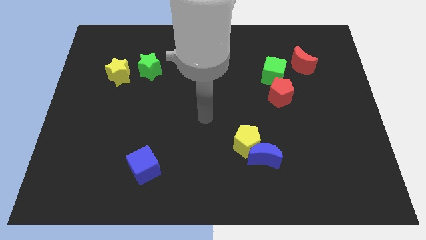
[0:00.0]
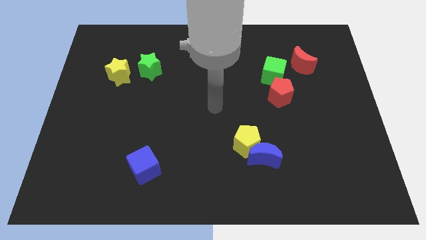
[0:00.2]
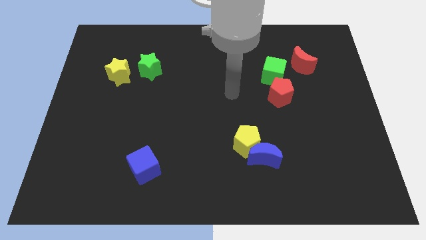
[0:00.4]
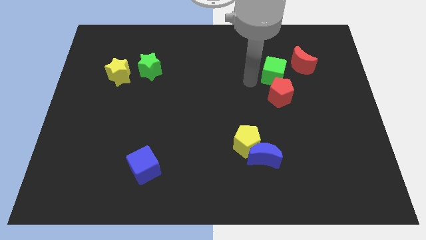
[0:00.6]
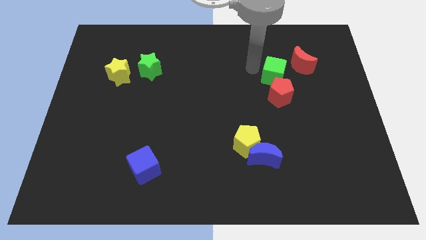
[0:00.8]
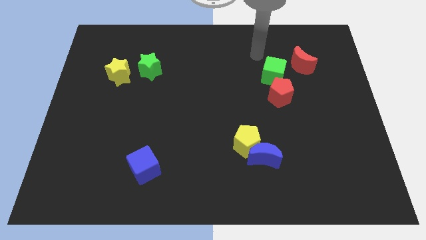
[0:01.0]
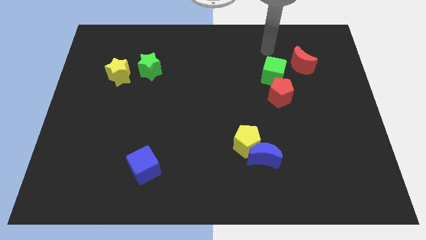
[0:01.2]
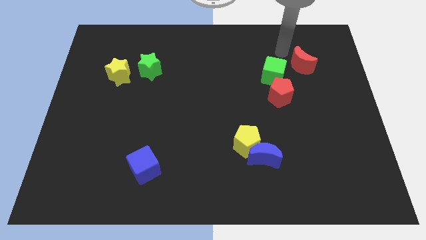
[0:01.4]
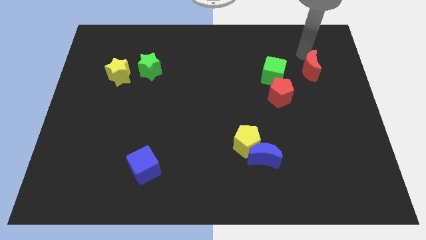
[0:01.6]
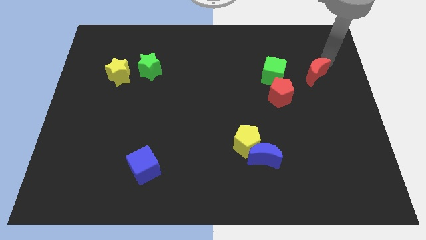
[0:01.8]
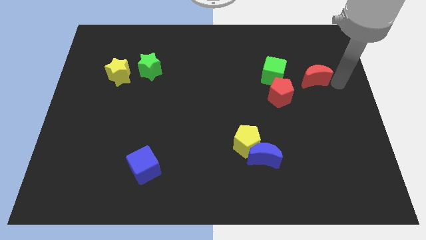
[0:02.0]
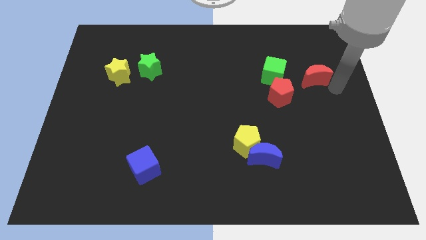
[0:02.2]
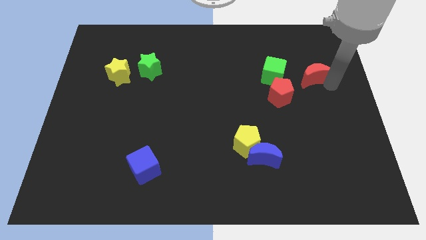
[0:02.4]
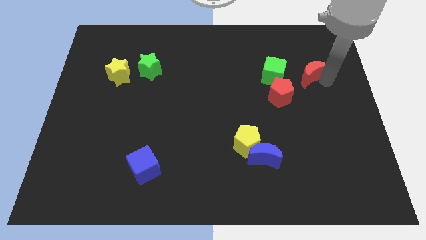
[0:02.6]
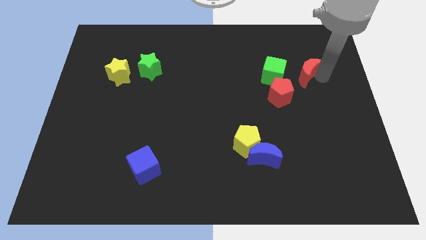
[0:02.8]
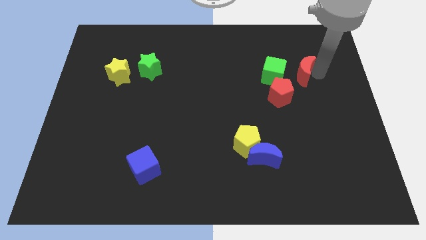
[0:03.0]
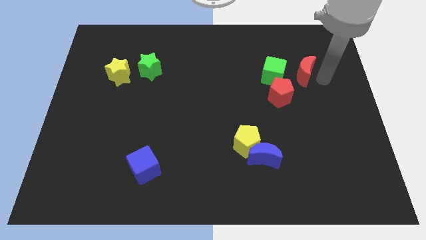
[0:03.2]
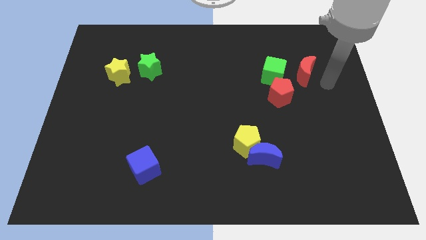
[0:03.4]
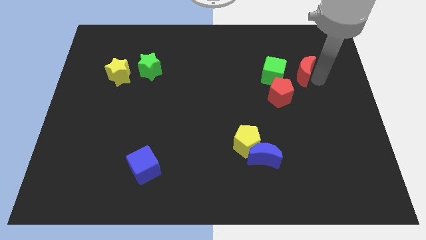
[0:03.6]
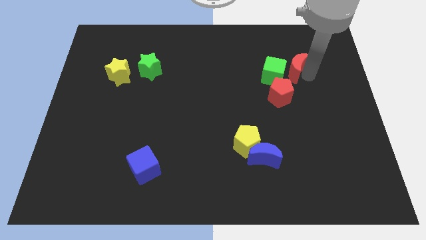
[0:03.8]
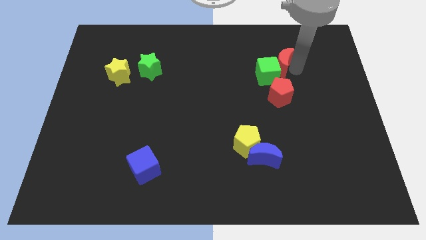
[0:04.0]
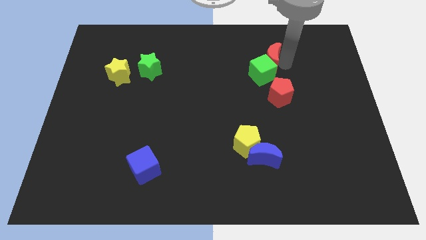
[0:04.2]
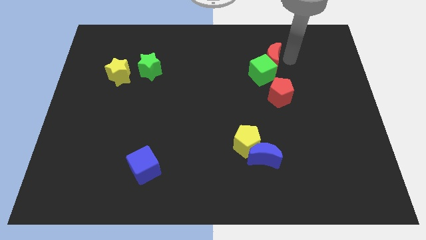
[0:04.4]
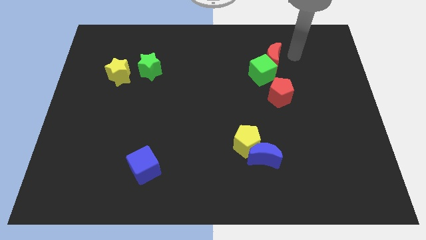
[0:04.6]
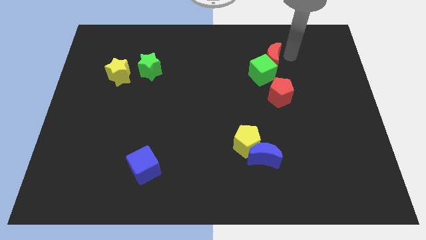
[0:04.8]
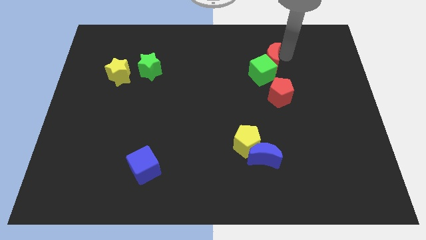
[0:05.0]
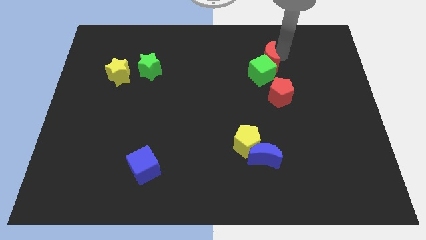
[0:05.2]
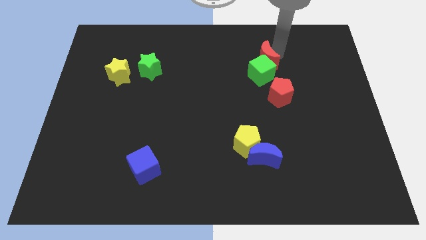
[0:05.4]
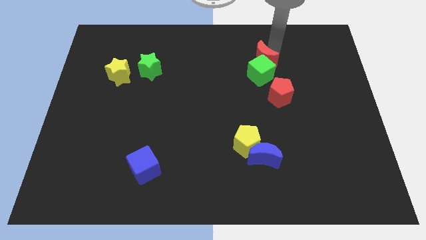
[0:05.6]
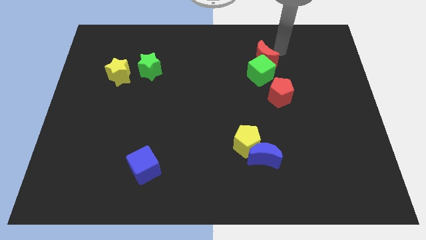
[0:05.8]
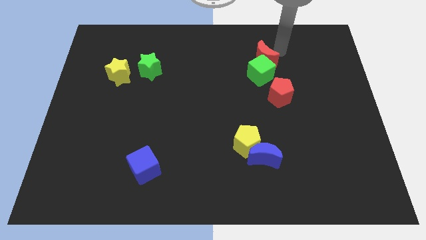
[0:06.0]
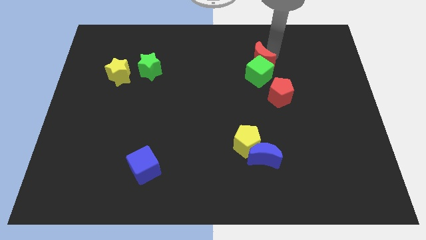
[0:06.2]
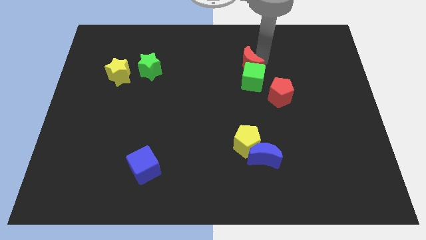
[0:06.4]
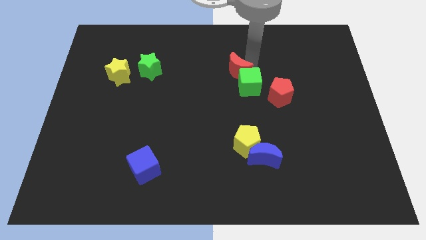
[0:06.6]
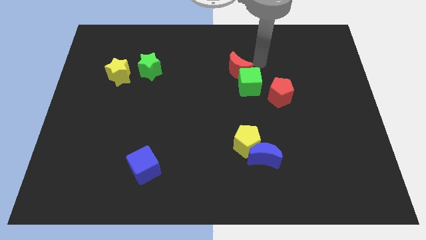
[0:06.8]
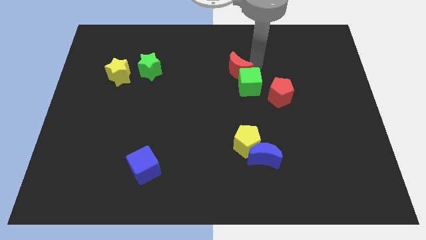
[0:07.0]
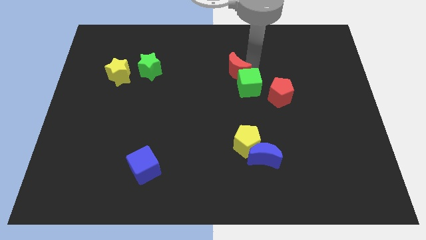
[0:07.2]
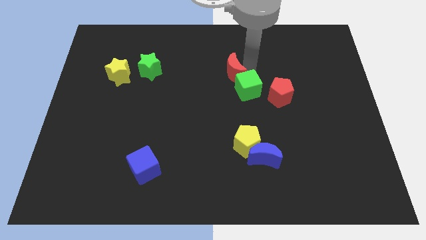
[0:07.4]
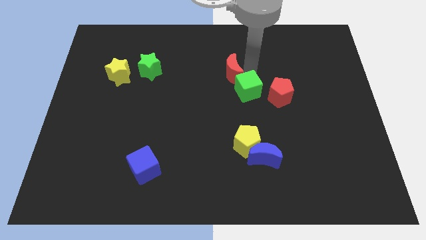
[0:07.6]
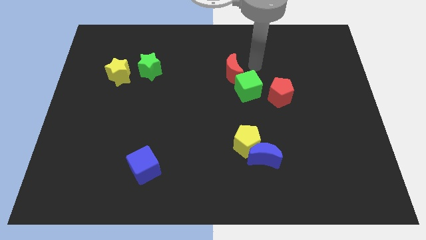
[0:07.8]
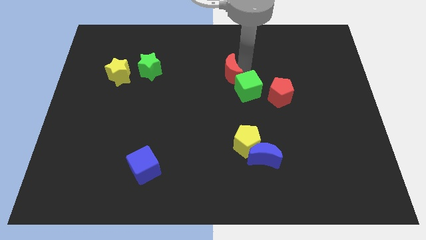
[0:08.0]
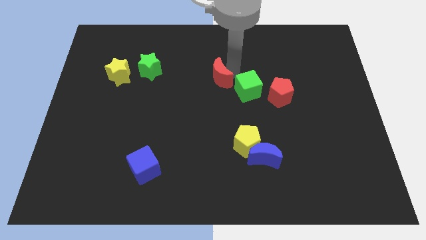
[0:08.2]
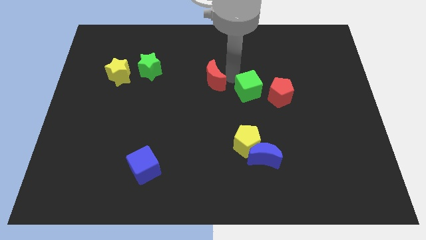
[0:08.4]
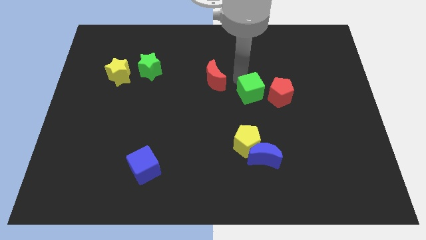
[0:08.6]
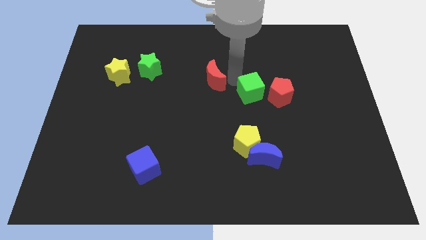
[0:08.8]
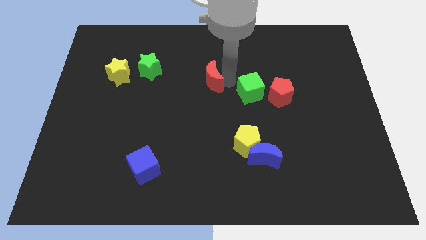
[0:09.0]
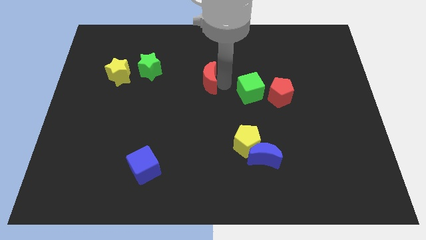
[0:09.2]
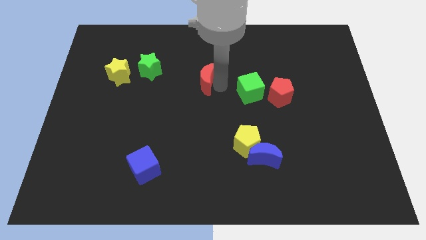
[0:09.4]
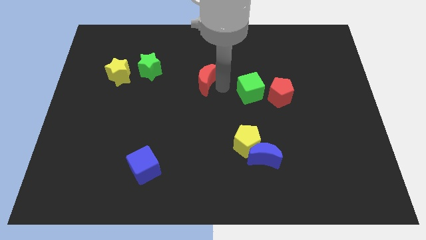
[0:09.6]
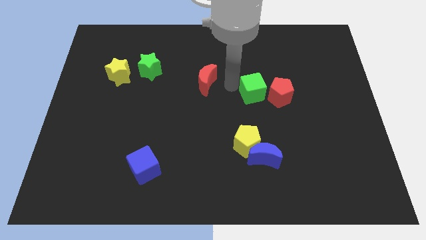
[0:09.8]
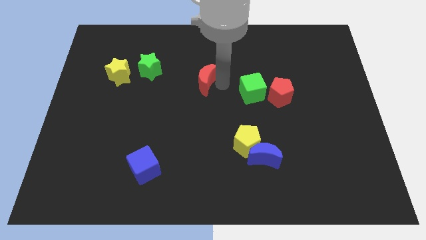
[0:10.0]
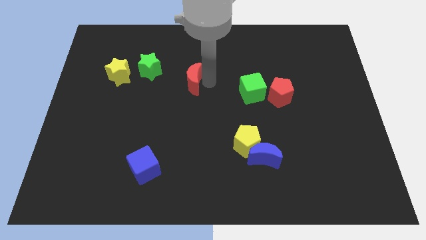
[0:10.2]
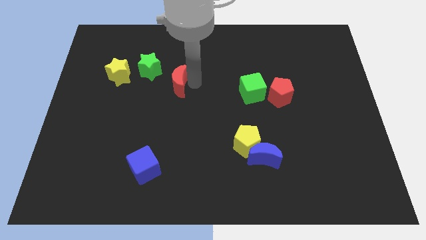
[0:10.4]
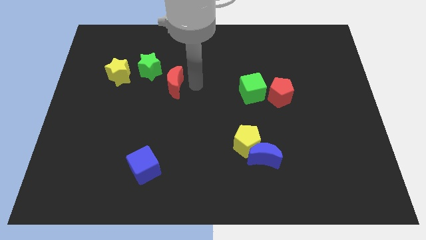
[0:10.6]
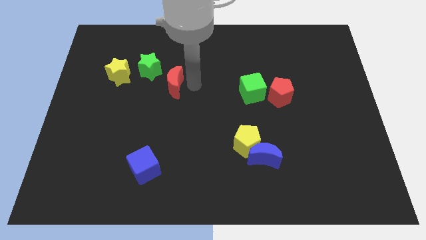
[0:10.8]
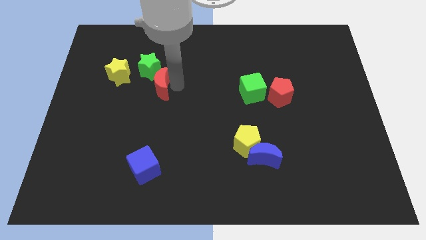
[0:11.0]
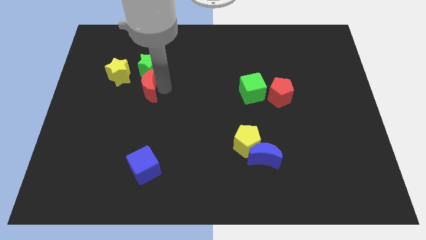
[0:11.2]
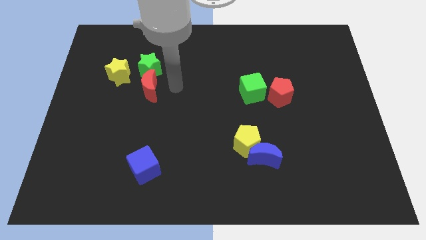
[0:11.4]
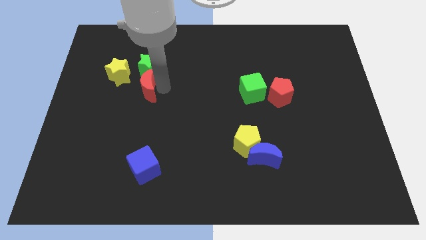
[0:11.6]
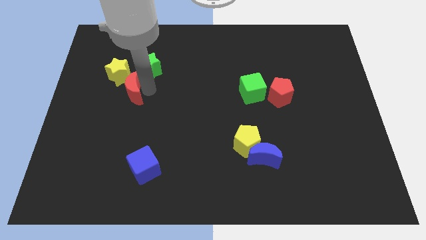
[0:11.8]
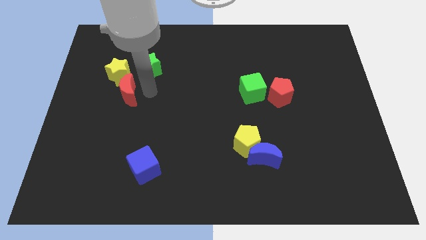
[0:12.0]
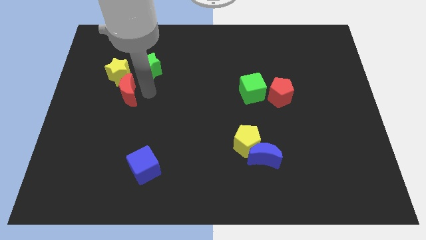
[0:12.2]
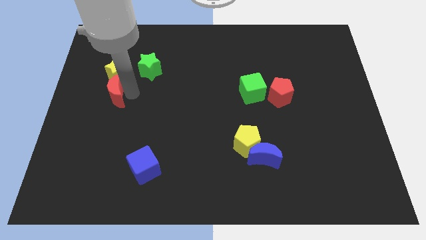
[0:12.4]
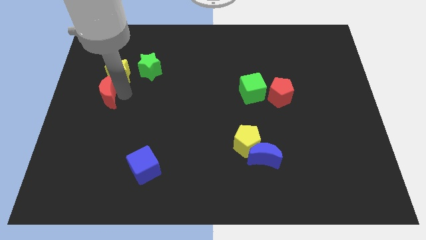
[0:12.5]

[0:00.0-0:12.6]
slide the red moon to the center left

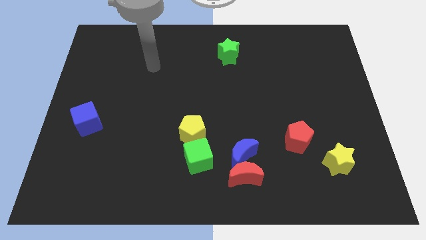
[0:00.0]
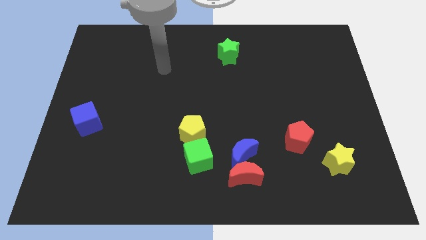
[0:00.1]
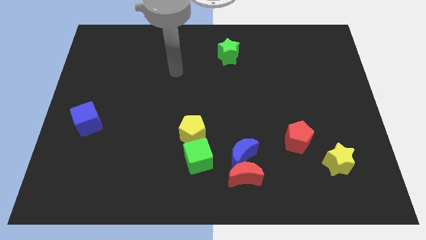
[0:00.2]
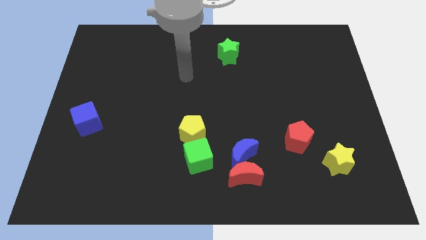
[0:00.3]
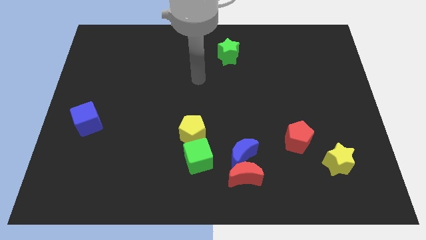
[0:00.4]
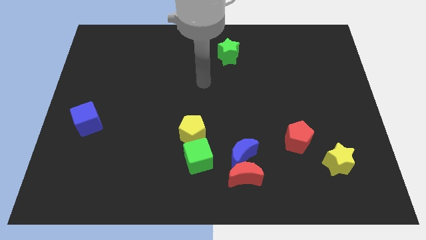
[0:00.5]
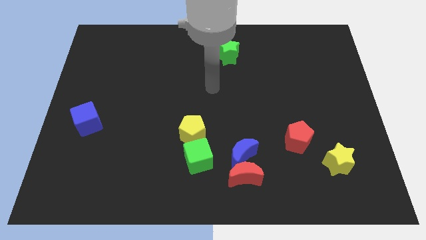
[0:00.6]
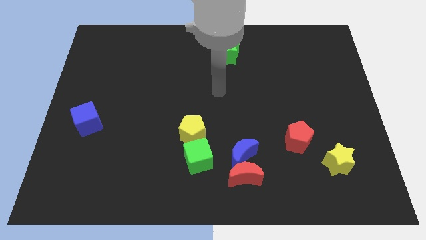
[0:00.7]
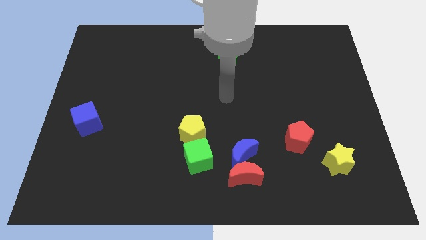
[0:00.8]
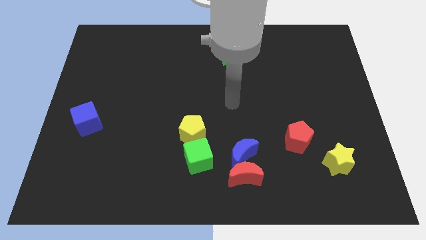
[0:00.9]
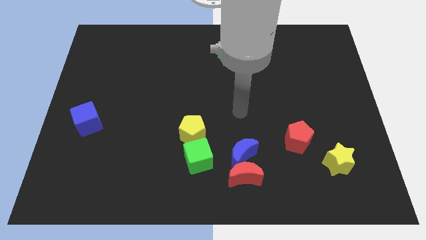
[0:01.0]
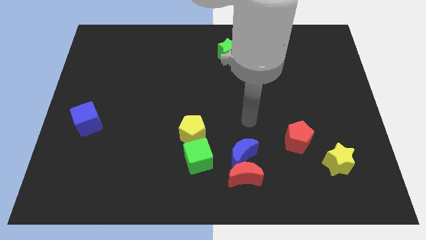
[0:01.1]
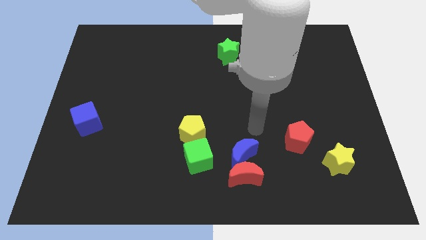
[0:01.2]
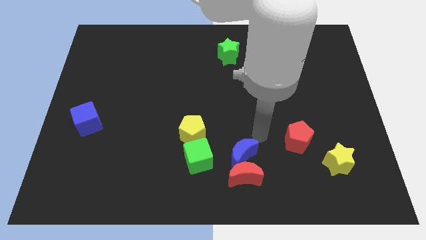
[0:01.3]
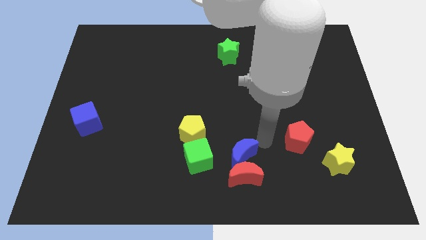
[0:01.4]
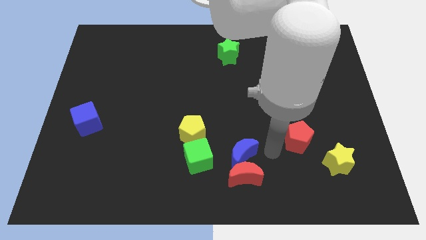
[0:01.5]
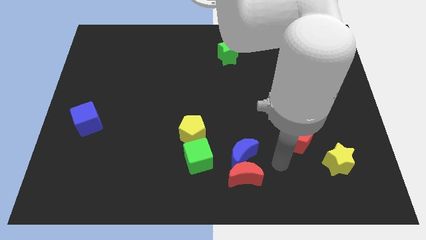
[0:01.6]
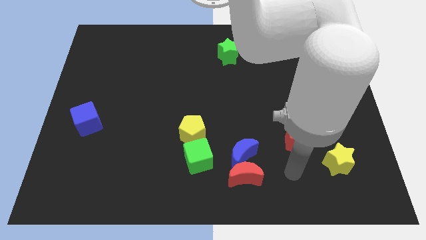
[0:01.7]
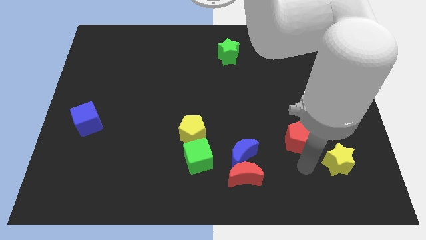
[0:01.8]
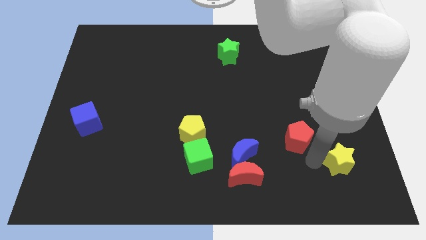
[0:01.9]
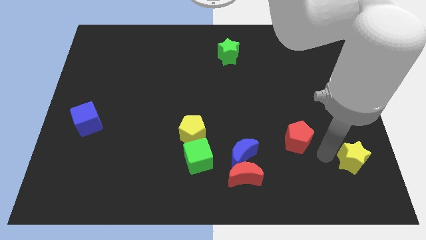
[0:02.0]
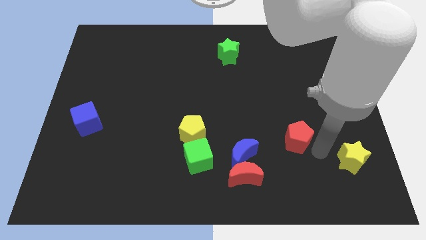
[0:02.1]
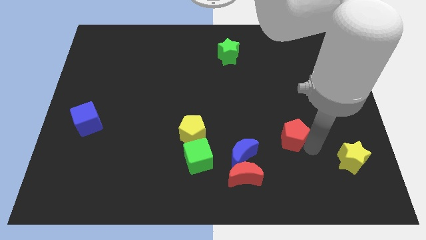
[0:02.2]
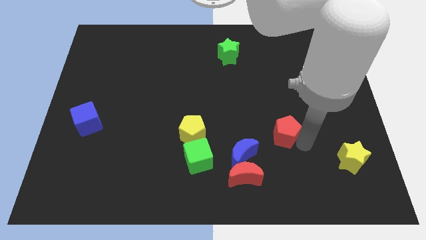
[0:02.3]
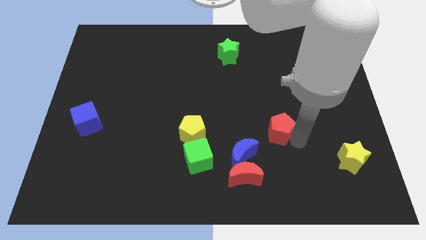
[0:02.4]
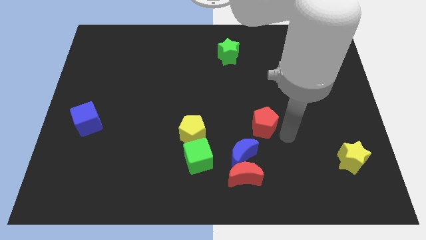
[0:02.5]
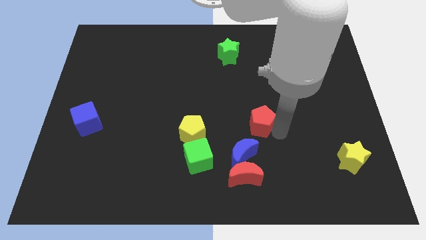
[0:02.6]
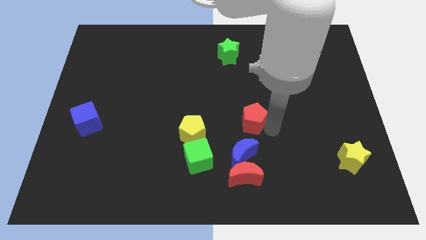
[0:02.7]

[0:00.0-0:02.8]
push the red pentagon to the center
